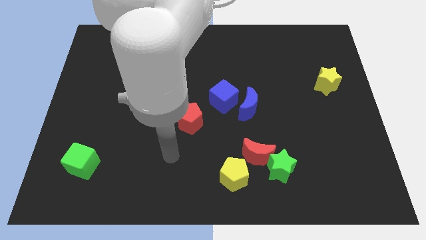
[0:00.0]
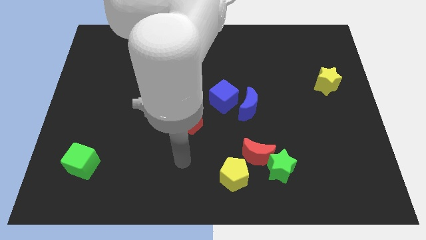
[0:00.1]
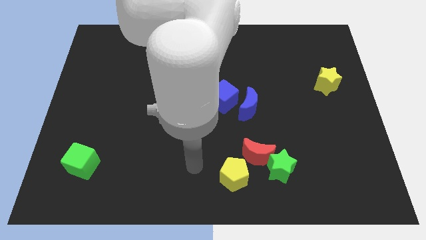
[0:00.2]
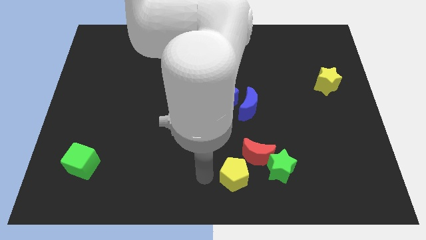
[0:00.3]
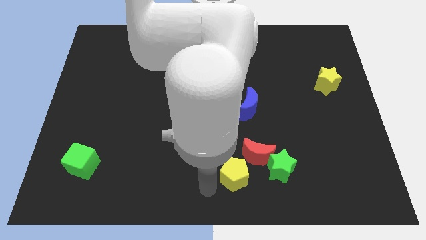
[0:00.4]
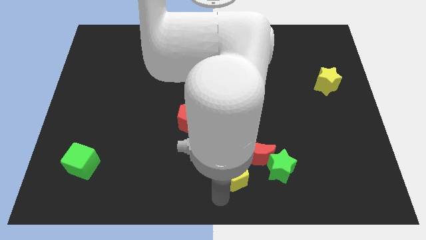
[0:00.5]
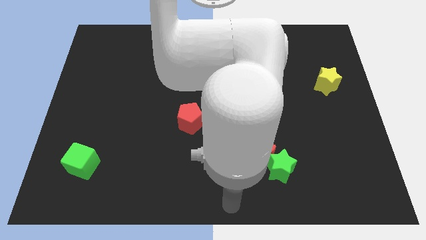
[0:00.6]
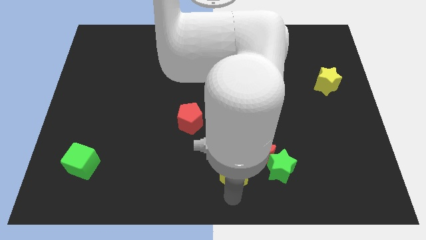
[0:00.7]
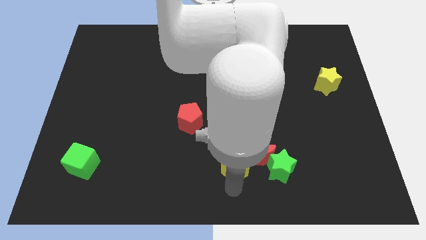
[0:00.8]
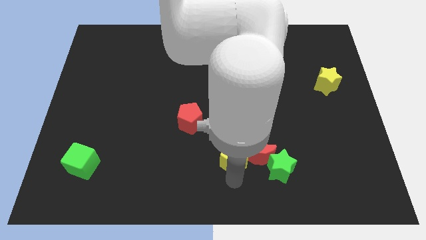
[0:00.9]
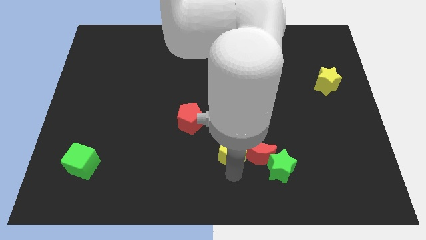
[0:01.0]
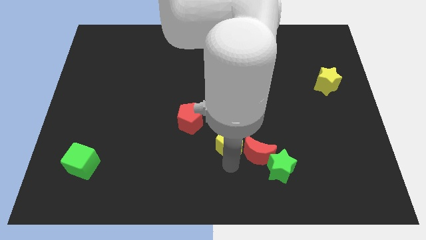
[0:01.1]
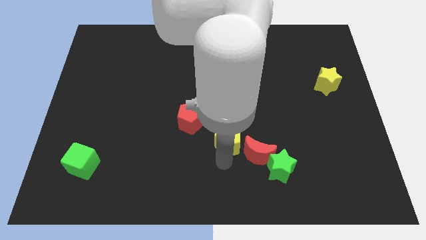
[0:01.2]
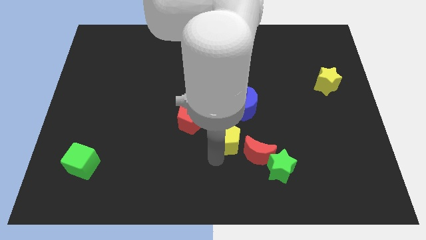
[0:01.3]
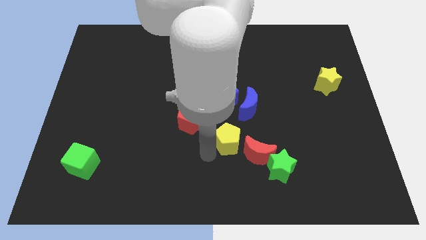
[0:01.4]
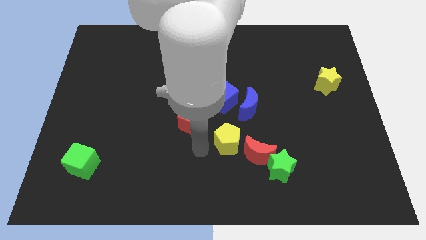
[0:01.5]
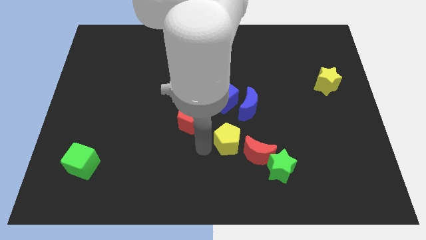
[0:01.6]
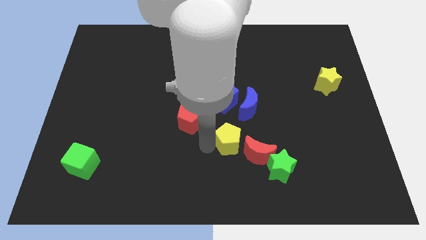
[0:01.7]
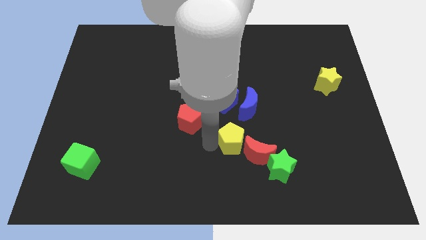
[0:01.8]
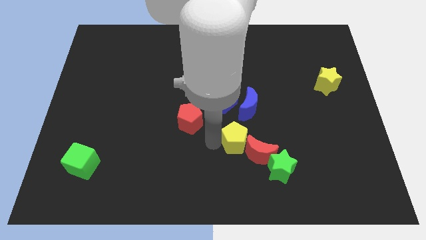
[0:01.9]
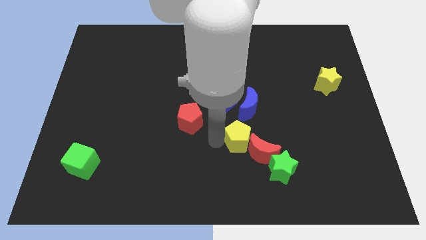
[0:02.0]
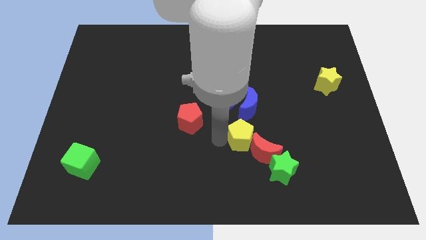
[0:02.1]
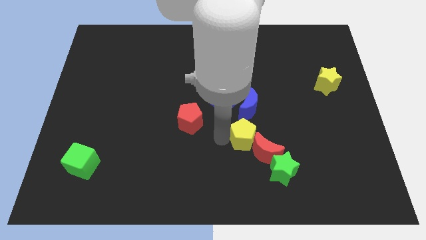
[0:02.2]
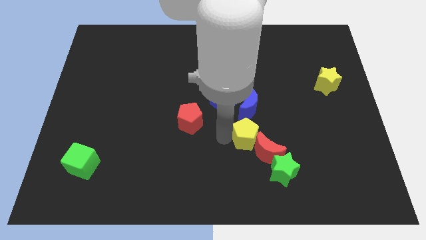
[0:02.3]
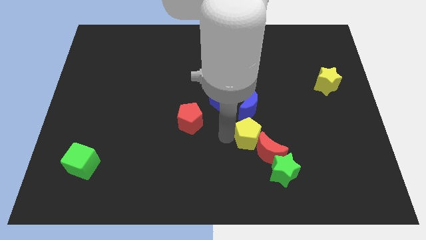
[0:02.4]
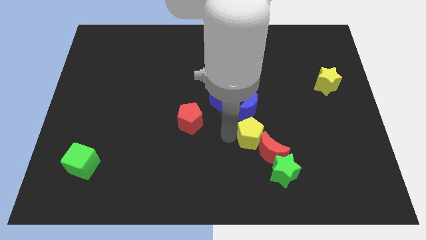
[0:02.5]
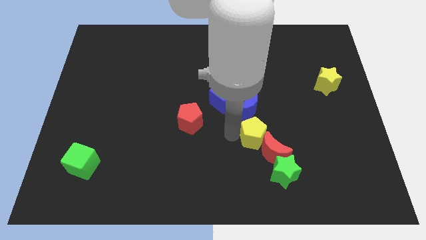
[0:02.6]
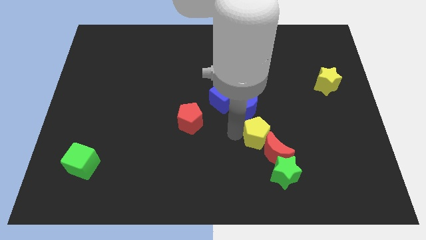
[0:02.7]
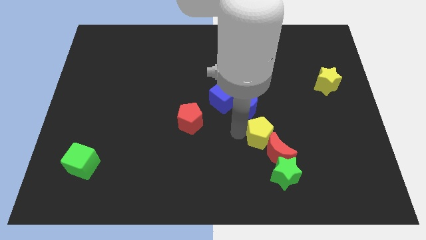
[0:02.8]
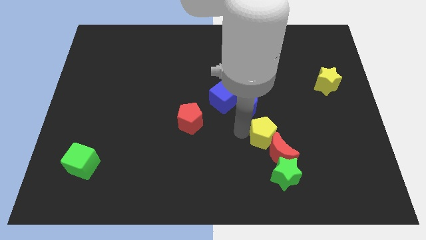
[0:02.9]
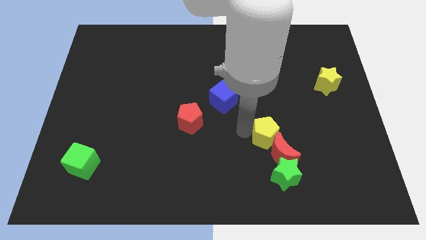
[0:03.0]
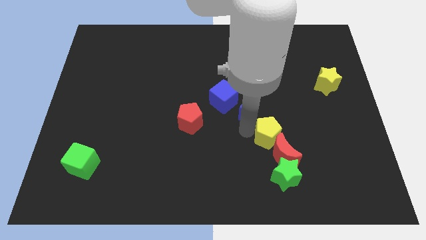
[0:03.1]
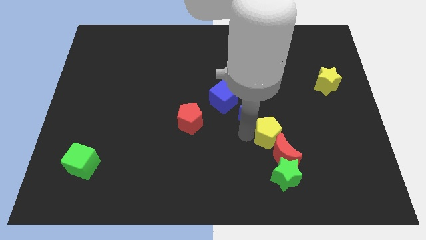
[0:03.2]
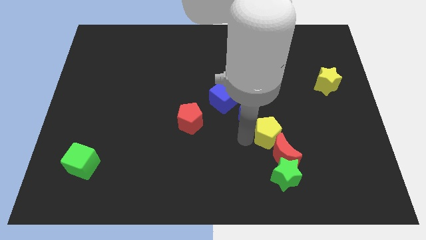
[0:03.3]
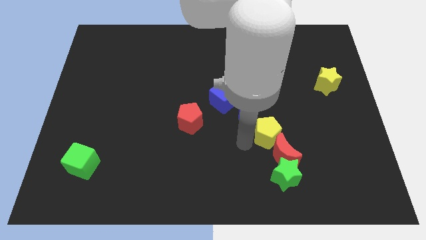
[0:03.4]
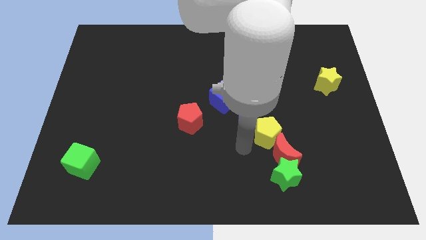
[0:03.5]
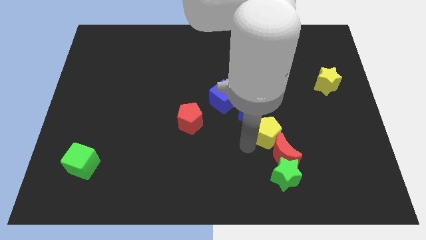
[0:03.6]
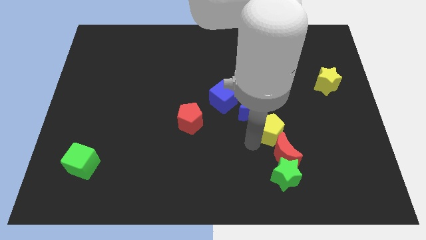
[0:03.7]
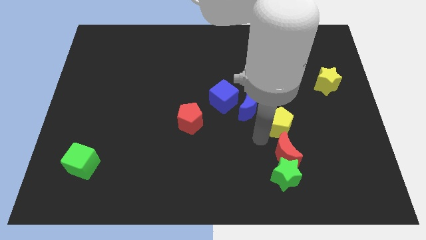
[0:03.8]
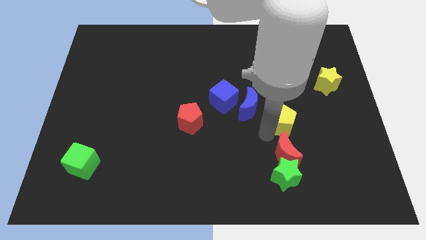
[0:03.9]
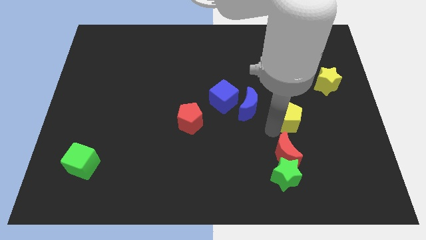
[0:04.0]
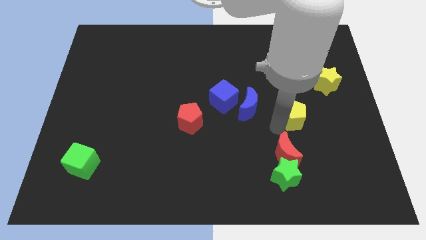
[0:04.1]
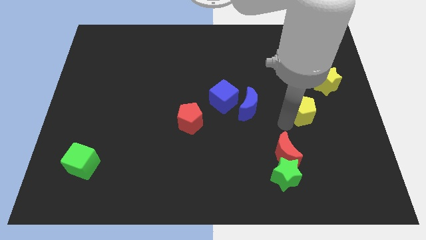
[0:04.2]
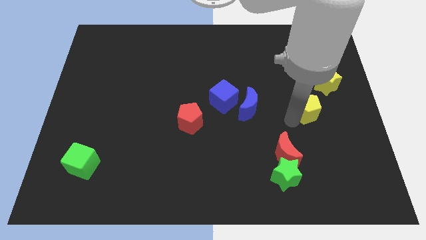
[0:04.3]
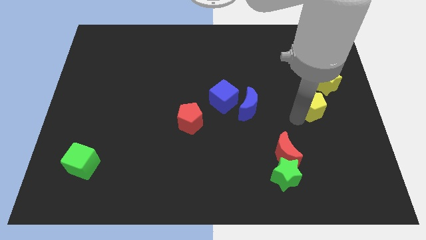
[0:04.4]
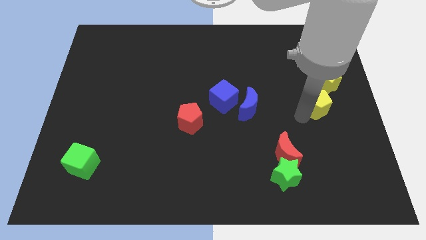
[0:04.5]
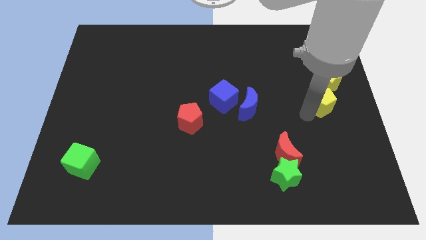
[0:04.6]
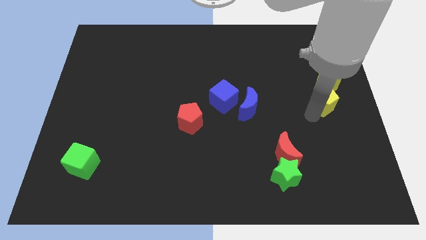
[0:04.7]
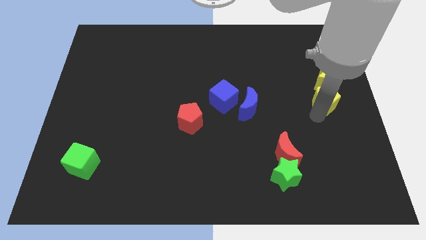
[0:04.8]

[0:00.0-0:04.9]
slide the yellow pentagon towards the yellow star

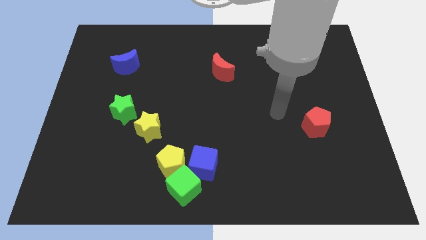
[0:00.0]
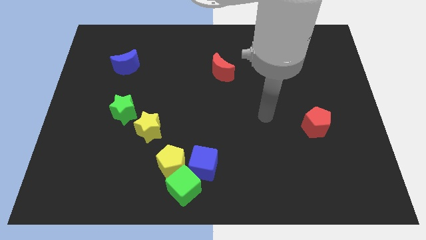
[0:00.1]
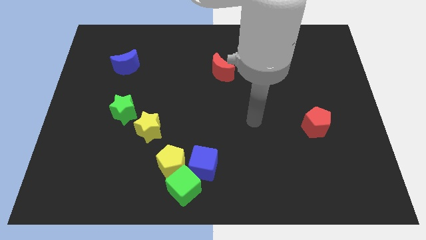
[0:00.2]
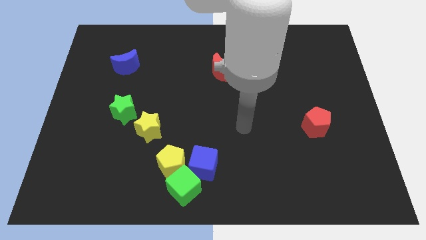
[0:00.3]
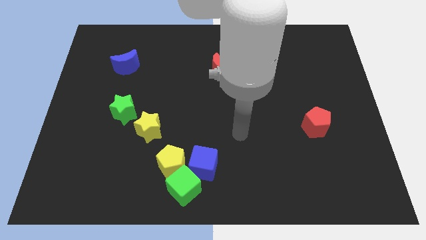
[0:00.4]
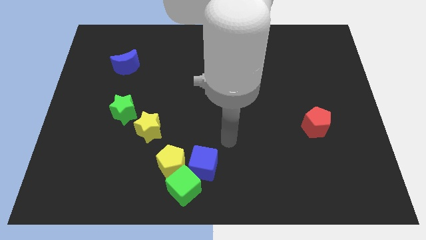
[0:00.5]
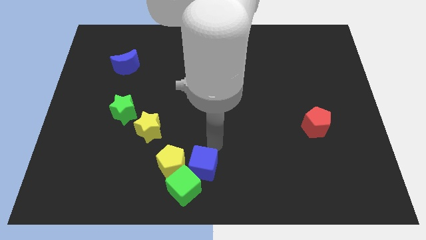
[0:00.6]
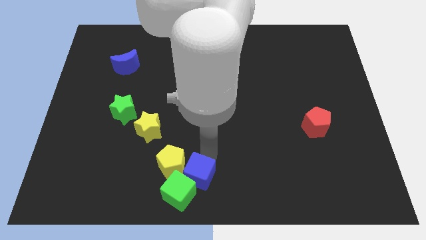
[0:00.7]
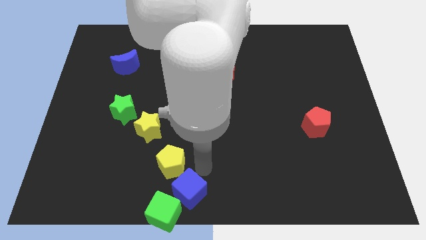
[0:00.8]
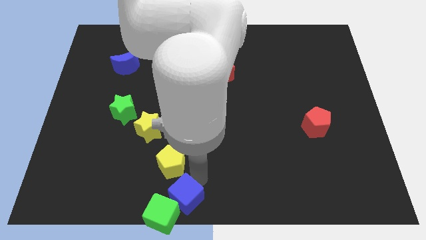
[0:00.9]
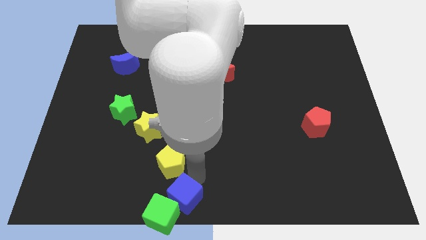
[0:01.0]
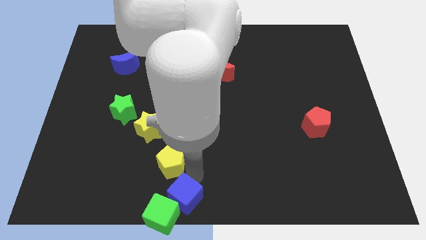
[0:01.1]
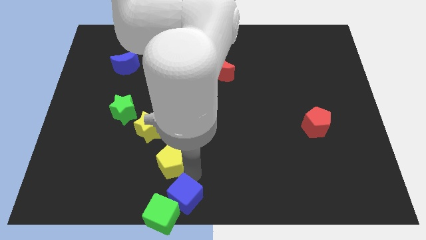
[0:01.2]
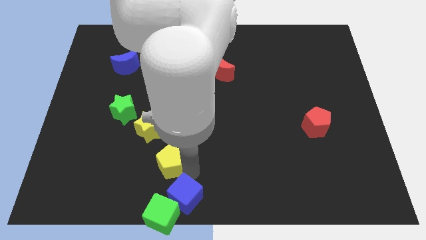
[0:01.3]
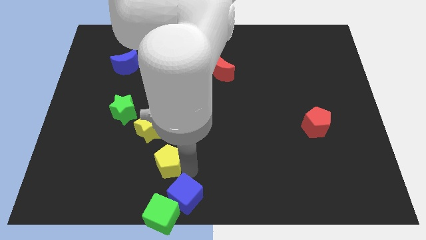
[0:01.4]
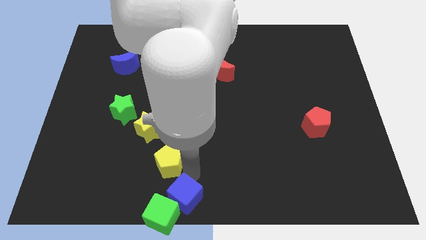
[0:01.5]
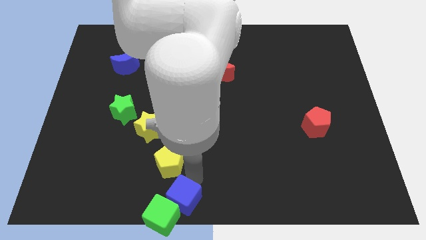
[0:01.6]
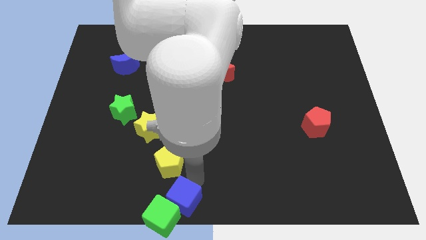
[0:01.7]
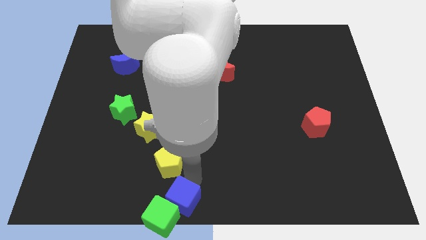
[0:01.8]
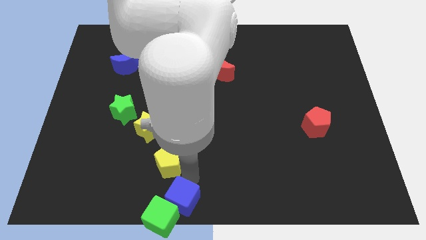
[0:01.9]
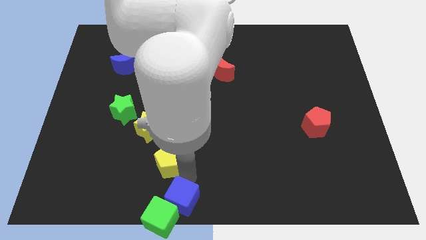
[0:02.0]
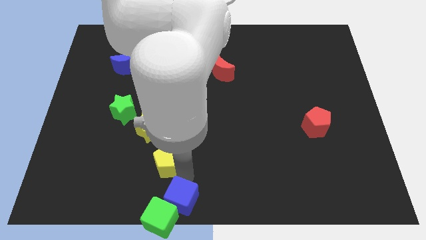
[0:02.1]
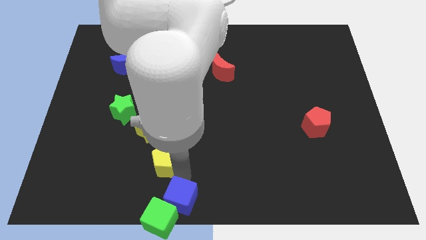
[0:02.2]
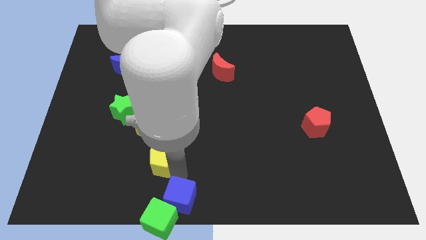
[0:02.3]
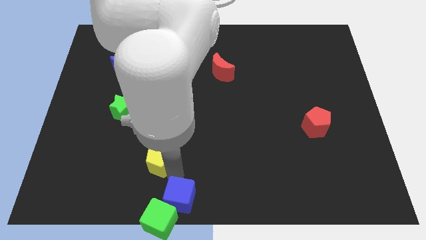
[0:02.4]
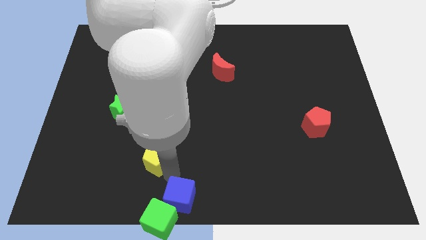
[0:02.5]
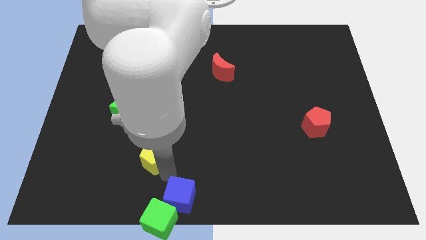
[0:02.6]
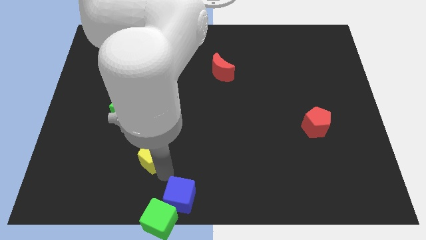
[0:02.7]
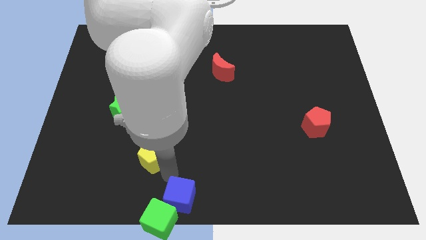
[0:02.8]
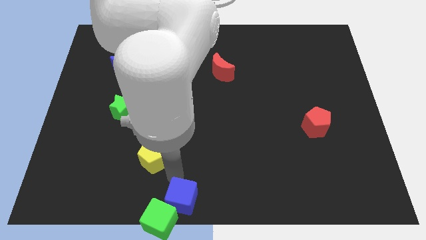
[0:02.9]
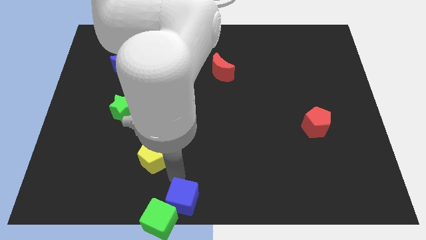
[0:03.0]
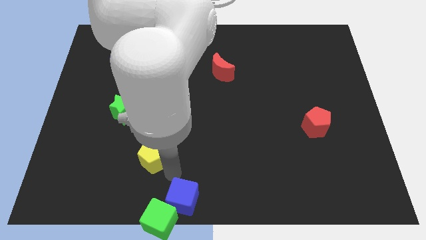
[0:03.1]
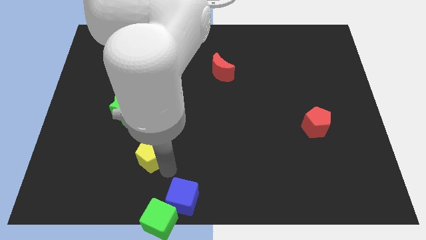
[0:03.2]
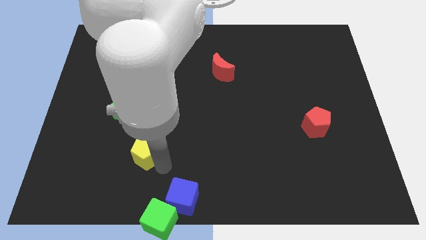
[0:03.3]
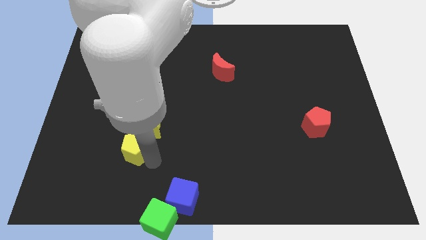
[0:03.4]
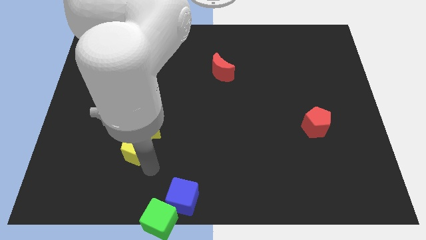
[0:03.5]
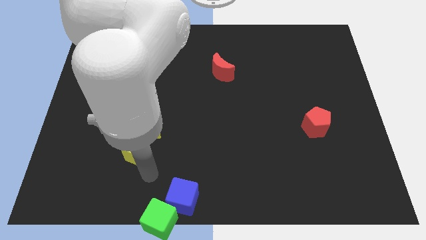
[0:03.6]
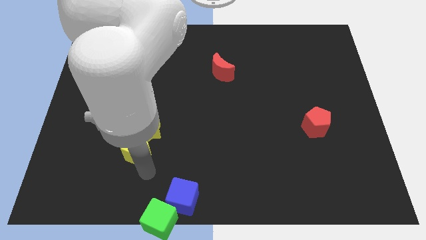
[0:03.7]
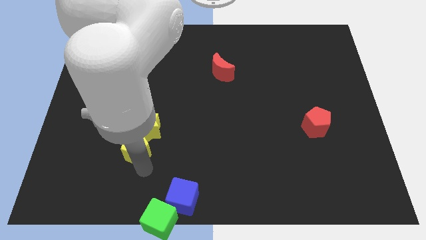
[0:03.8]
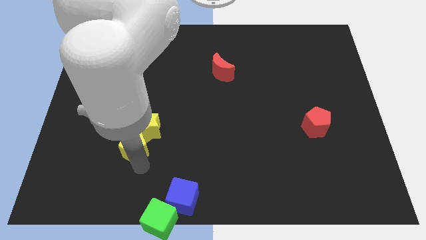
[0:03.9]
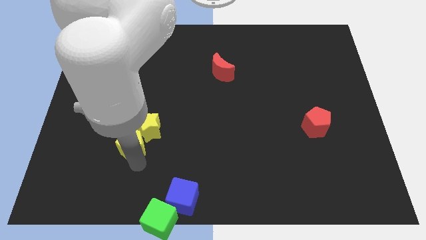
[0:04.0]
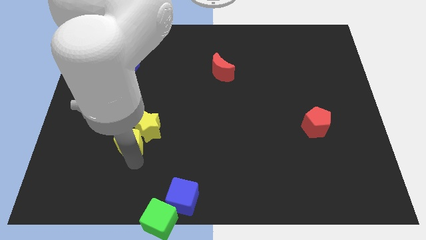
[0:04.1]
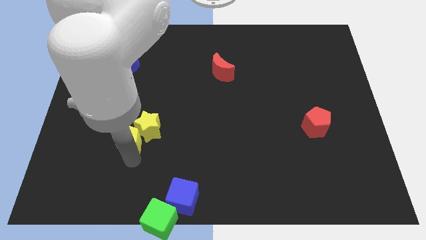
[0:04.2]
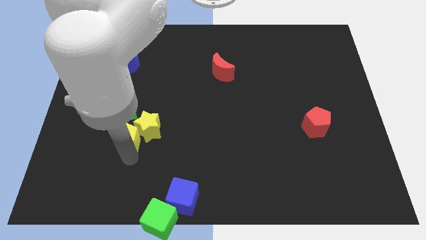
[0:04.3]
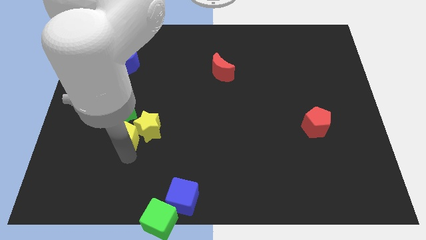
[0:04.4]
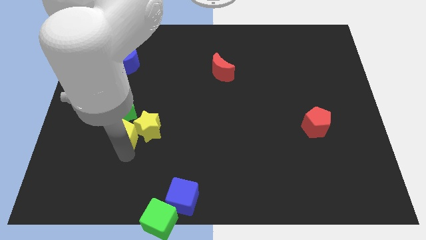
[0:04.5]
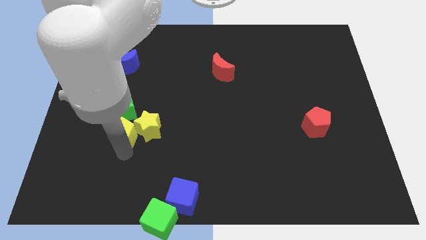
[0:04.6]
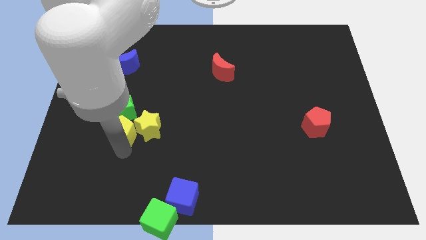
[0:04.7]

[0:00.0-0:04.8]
push the yellow pentagon close to the green star
